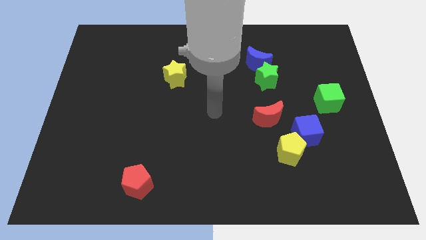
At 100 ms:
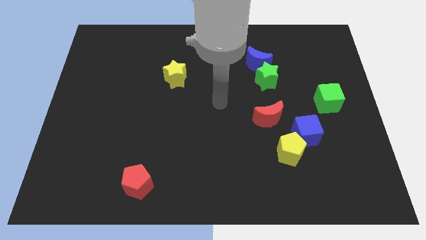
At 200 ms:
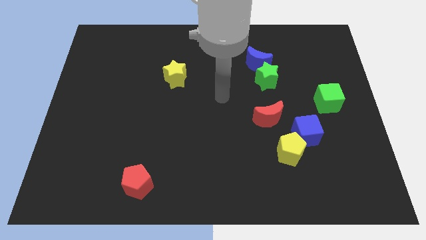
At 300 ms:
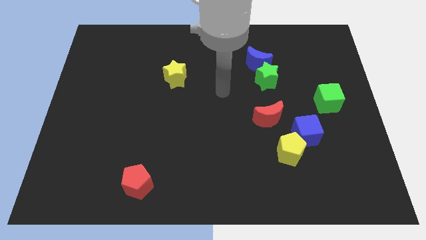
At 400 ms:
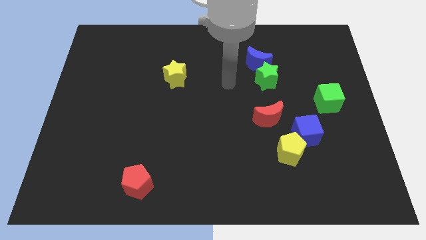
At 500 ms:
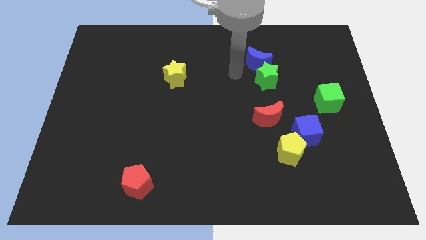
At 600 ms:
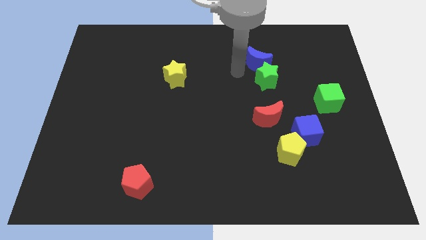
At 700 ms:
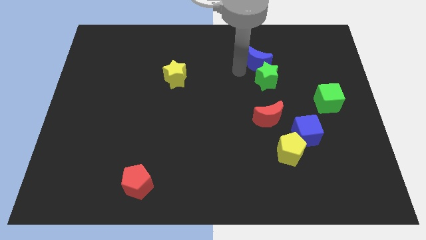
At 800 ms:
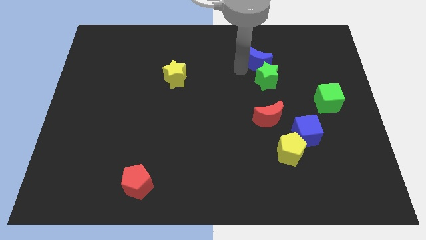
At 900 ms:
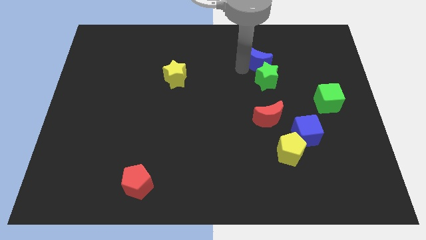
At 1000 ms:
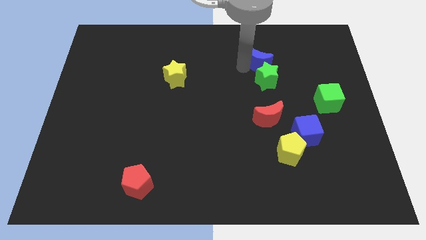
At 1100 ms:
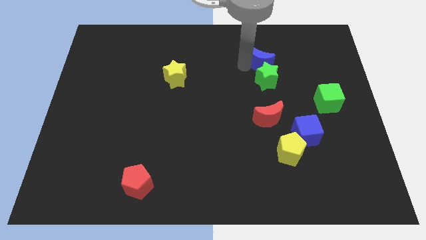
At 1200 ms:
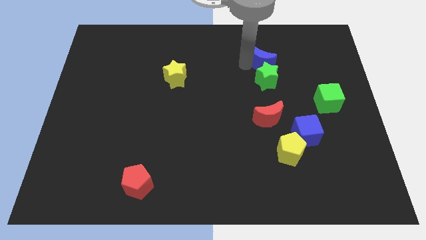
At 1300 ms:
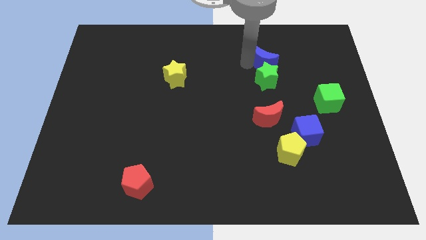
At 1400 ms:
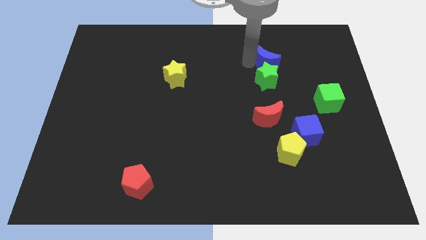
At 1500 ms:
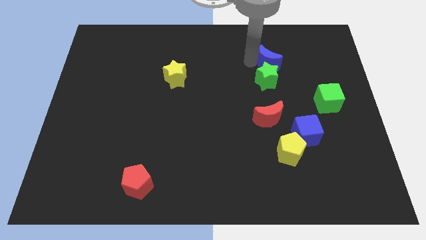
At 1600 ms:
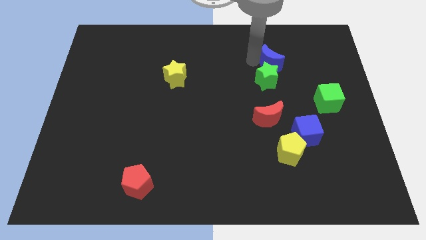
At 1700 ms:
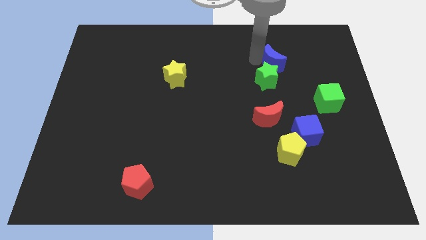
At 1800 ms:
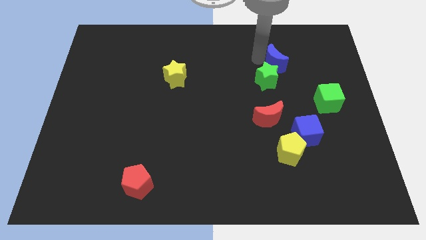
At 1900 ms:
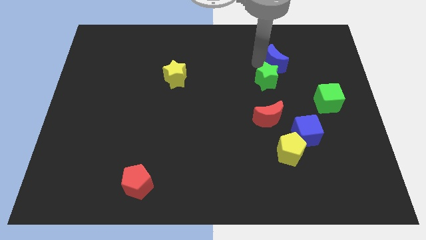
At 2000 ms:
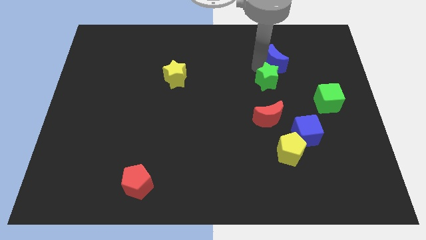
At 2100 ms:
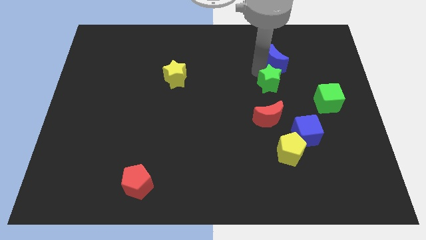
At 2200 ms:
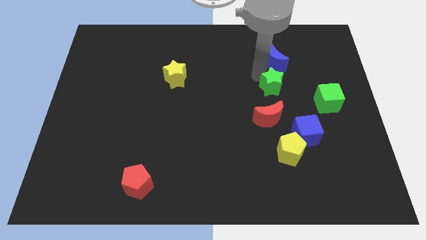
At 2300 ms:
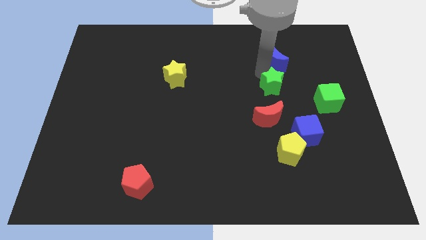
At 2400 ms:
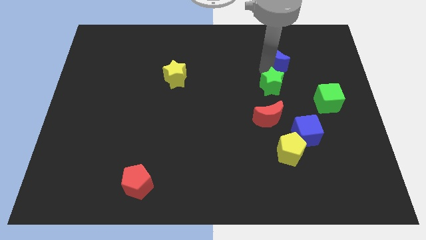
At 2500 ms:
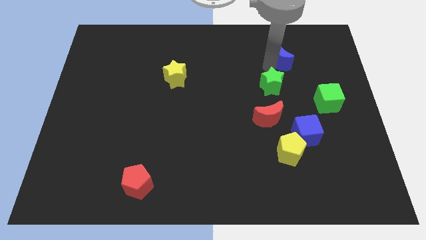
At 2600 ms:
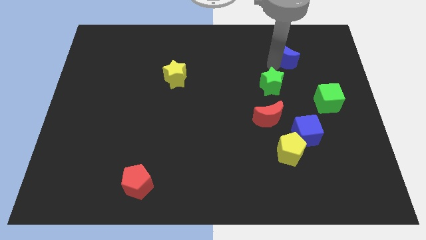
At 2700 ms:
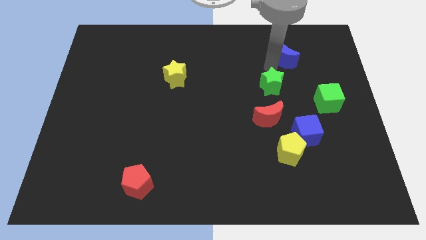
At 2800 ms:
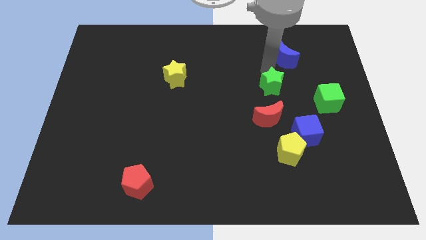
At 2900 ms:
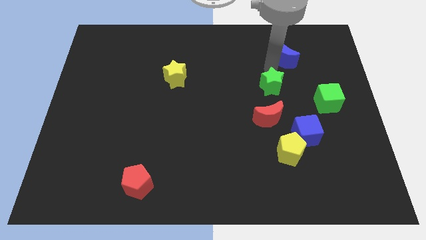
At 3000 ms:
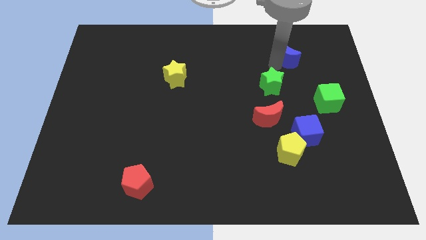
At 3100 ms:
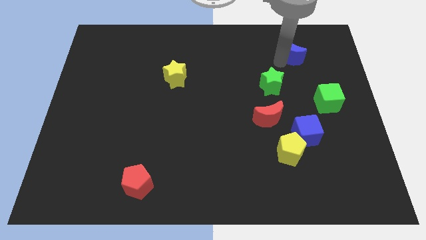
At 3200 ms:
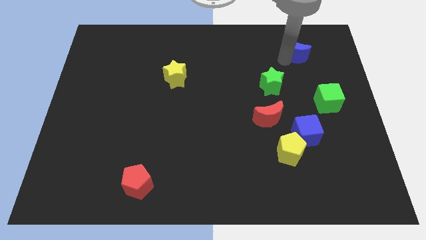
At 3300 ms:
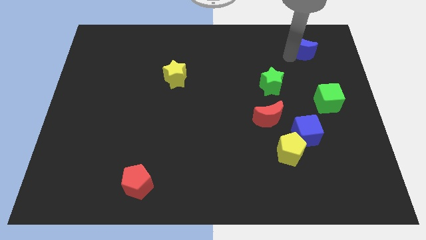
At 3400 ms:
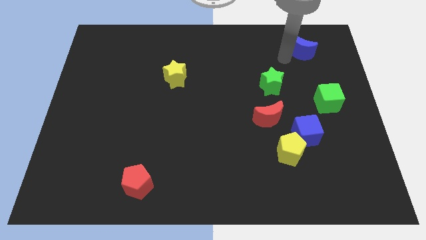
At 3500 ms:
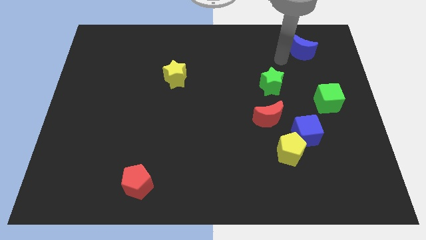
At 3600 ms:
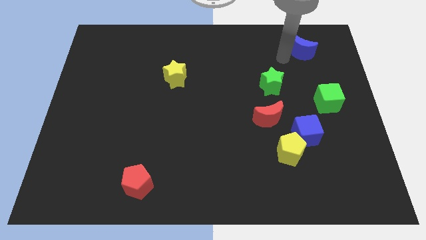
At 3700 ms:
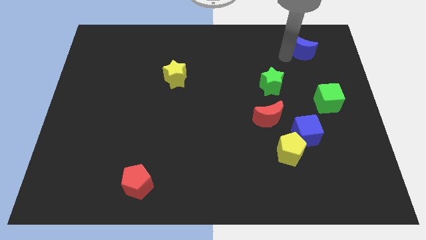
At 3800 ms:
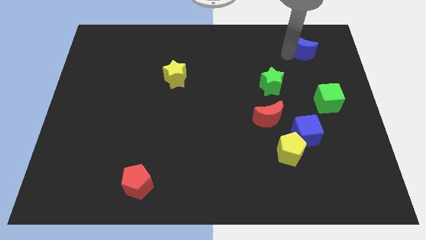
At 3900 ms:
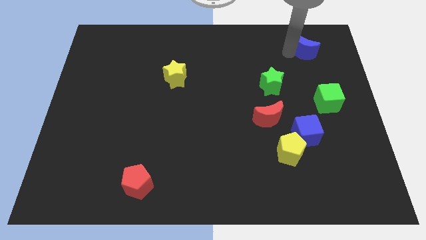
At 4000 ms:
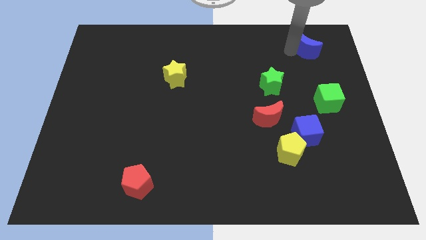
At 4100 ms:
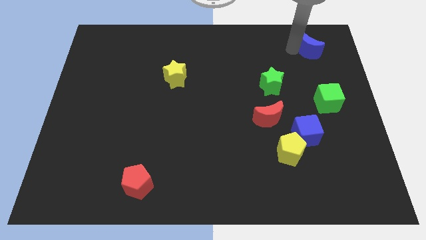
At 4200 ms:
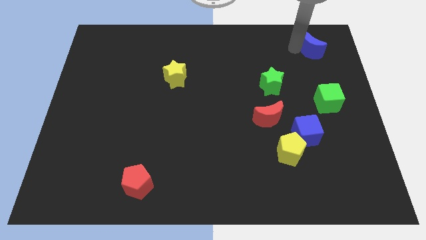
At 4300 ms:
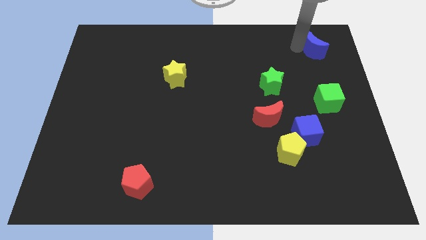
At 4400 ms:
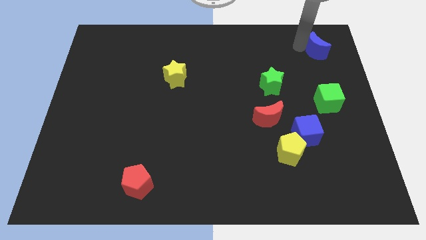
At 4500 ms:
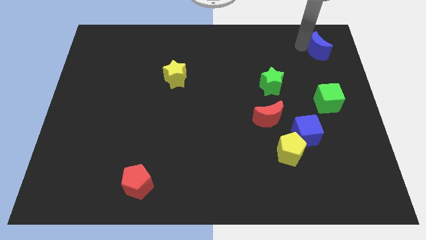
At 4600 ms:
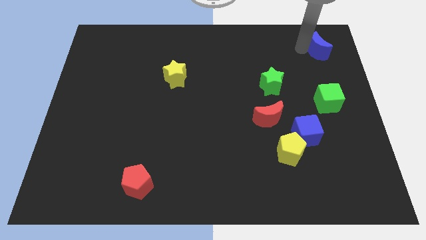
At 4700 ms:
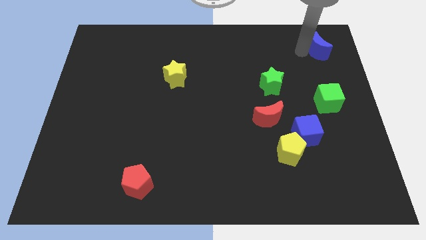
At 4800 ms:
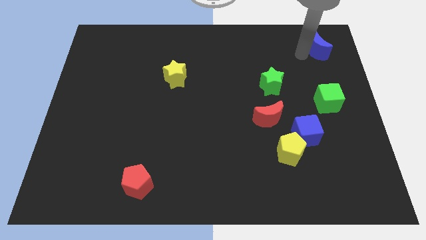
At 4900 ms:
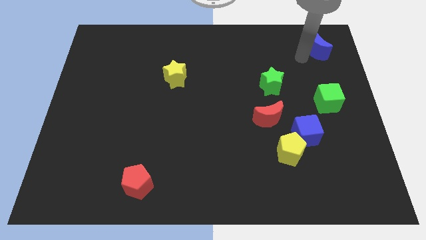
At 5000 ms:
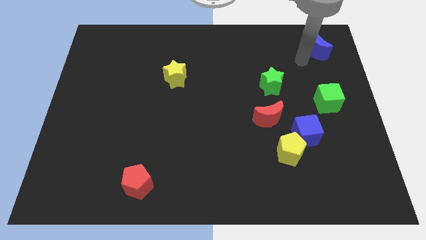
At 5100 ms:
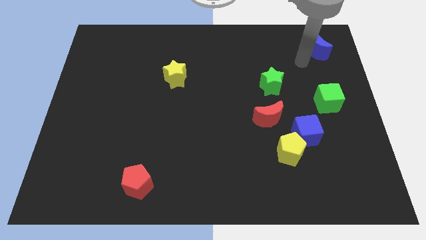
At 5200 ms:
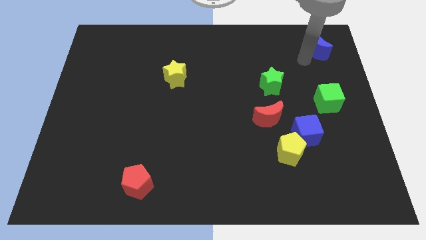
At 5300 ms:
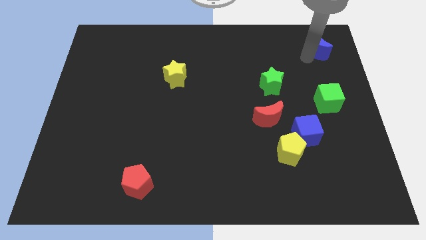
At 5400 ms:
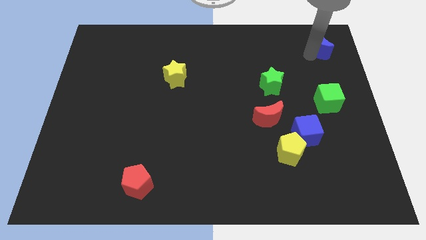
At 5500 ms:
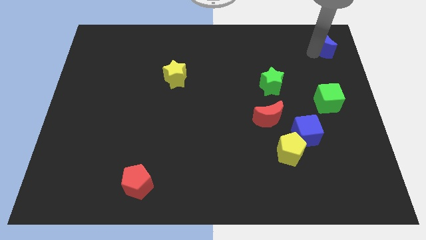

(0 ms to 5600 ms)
move the blue moon to the top right corner
